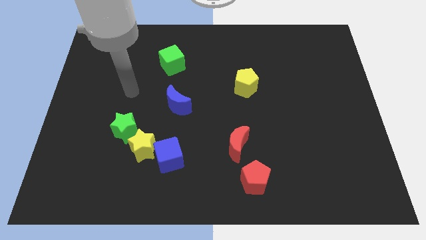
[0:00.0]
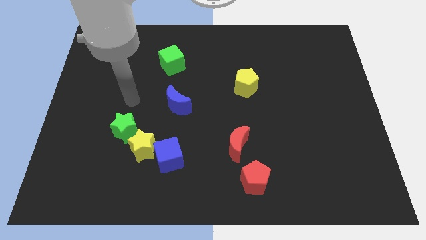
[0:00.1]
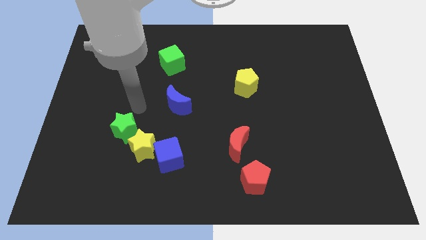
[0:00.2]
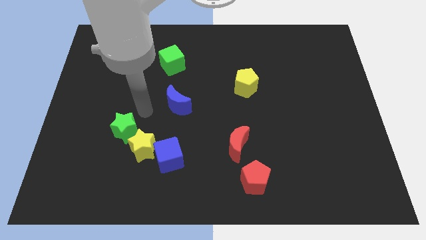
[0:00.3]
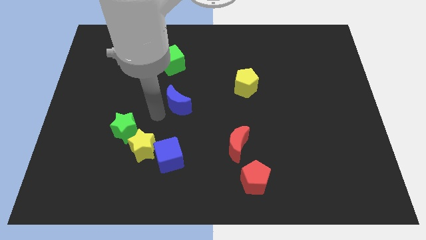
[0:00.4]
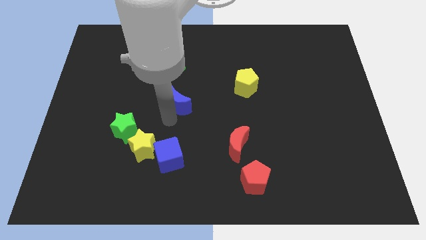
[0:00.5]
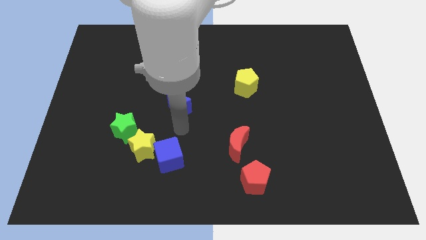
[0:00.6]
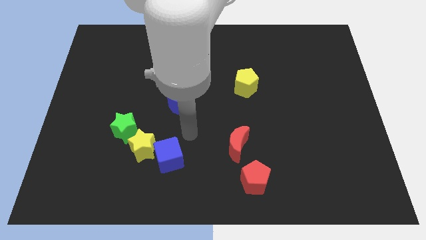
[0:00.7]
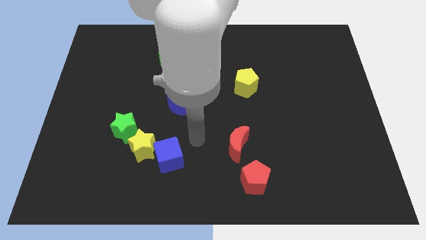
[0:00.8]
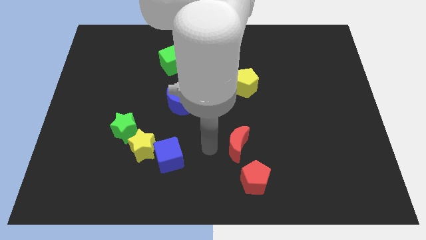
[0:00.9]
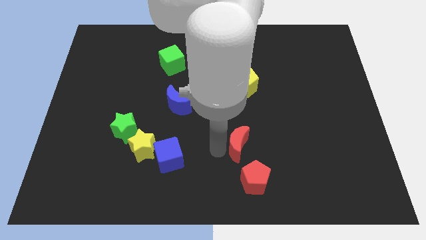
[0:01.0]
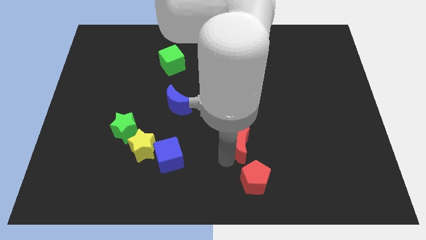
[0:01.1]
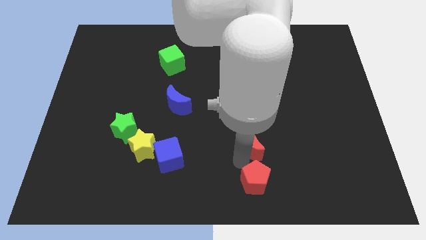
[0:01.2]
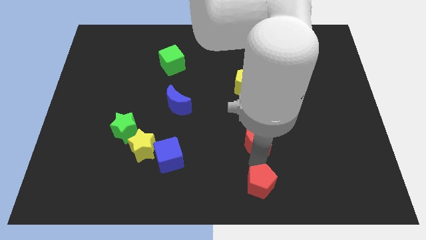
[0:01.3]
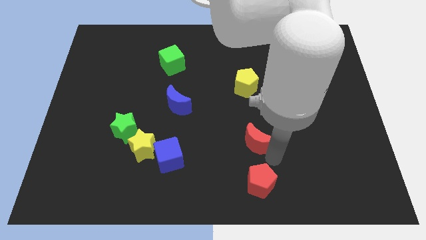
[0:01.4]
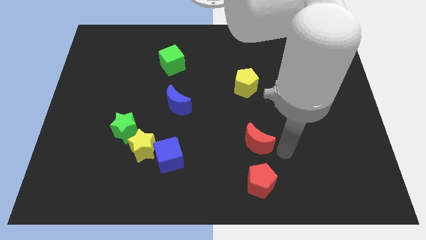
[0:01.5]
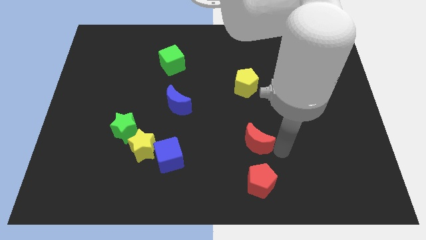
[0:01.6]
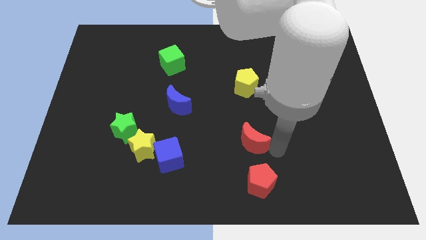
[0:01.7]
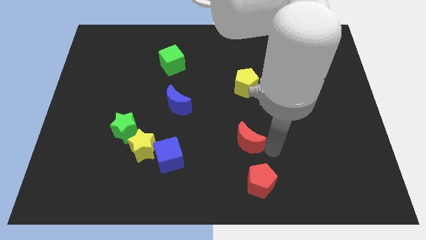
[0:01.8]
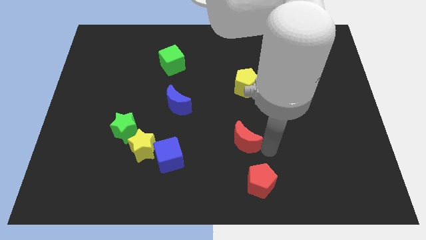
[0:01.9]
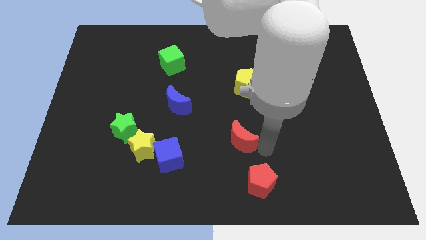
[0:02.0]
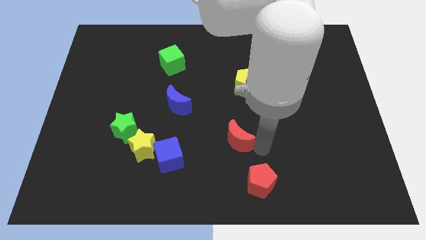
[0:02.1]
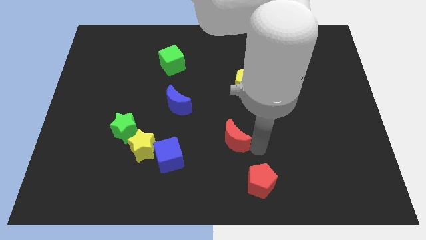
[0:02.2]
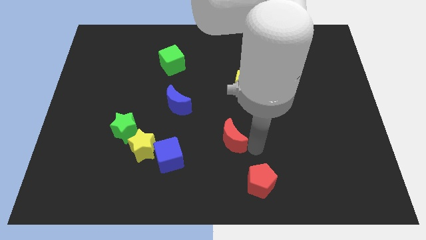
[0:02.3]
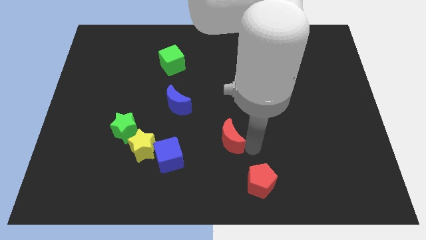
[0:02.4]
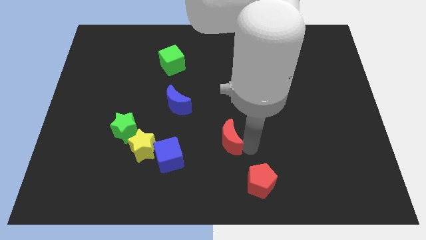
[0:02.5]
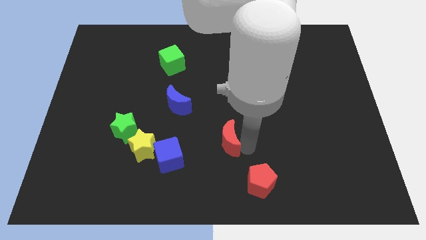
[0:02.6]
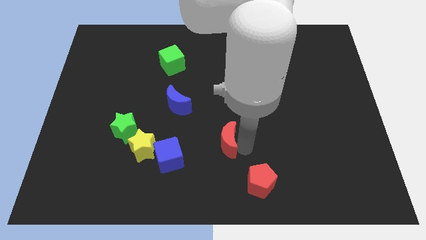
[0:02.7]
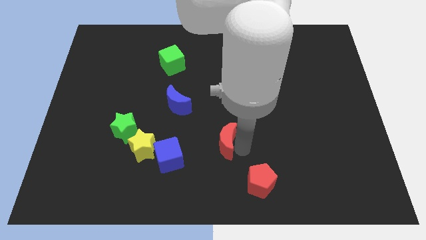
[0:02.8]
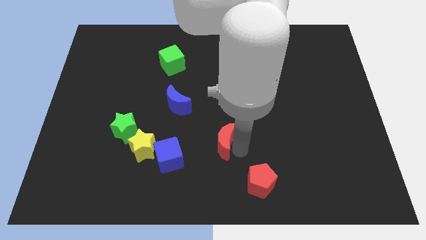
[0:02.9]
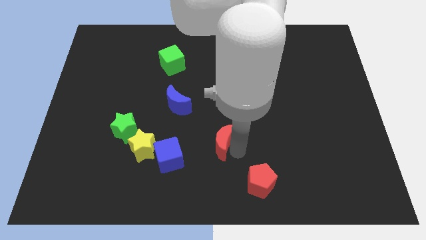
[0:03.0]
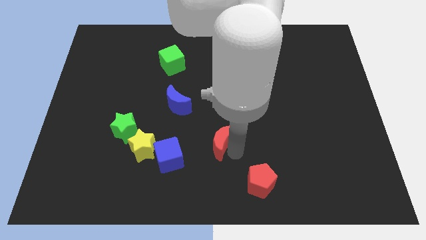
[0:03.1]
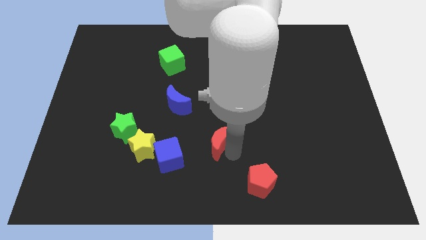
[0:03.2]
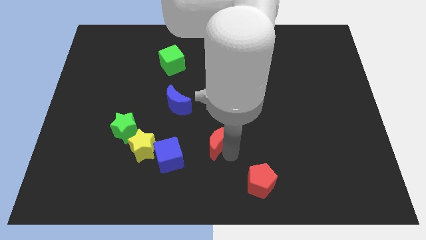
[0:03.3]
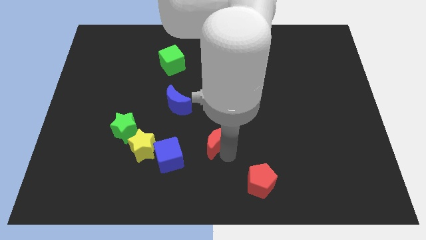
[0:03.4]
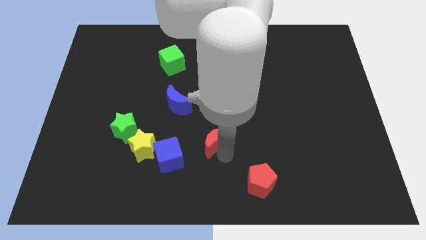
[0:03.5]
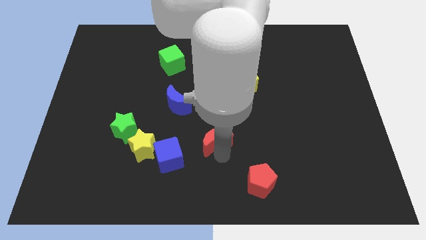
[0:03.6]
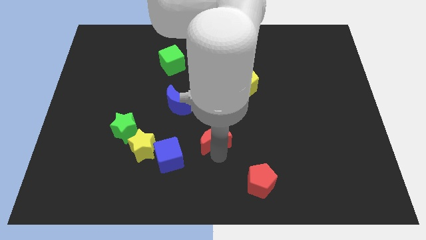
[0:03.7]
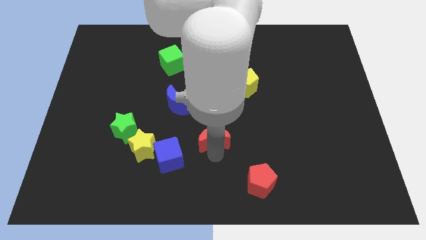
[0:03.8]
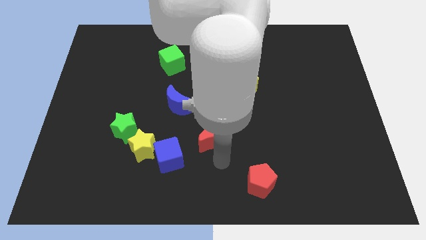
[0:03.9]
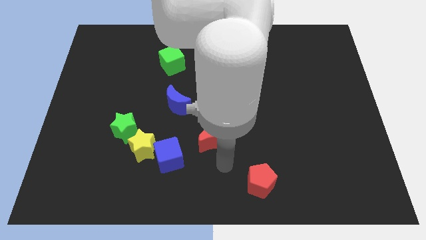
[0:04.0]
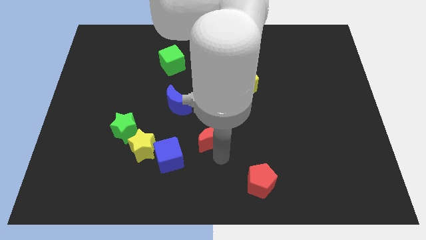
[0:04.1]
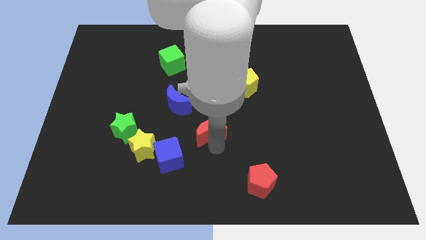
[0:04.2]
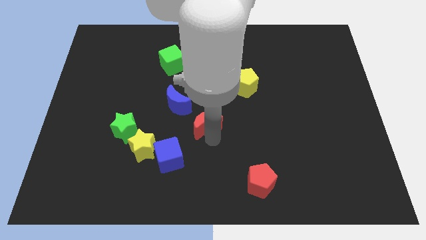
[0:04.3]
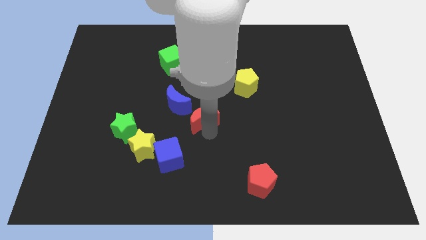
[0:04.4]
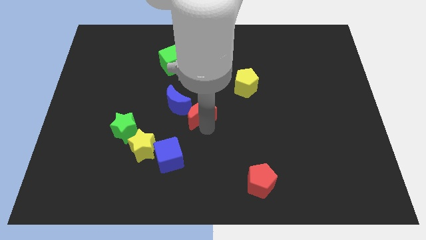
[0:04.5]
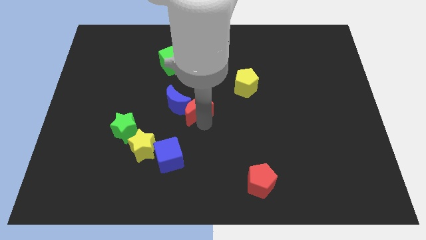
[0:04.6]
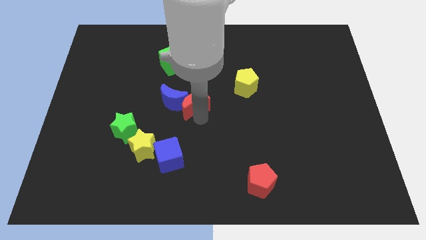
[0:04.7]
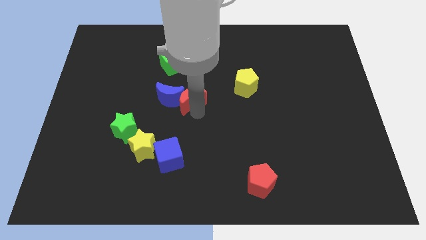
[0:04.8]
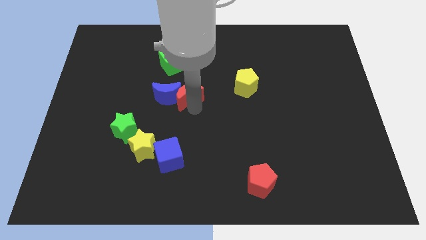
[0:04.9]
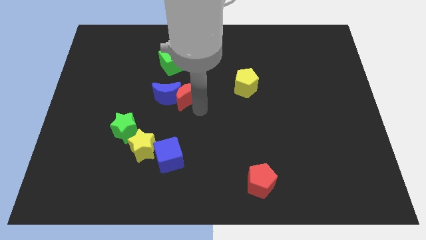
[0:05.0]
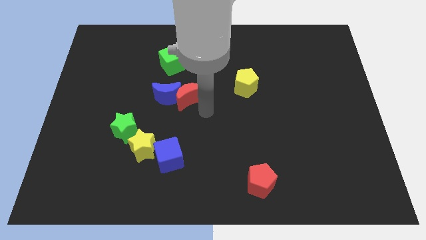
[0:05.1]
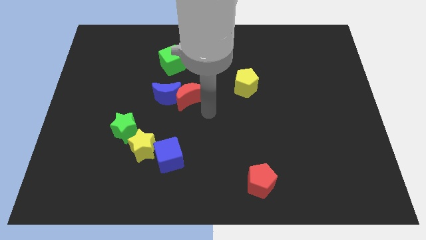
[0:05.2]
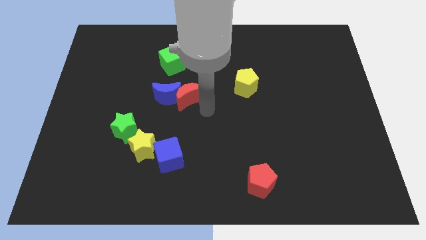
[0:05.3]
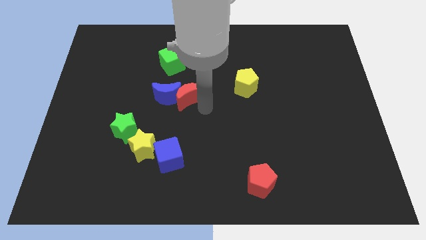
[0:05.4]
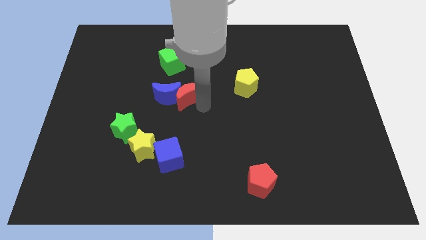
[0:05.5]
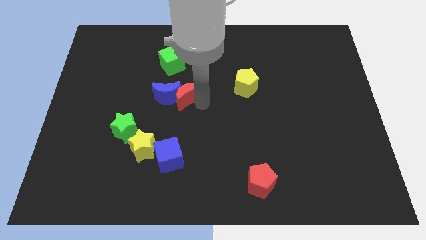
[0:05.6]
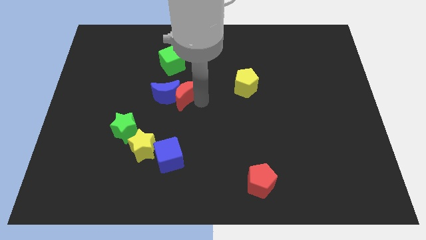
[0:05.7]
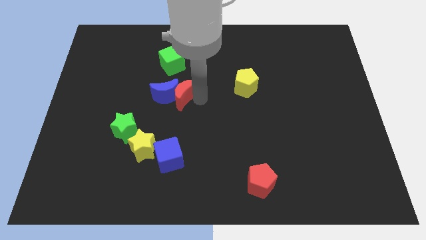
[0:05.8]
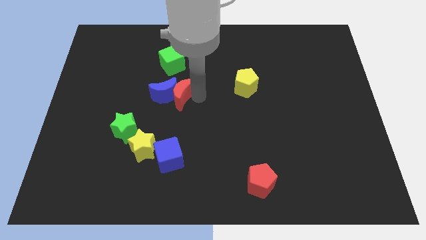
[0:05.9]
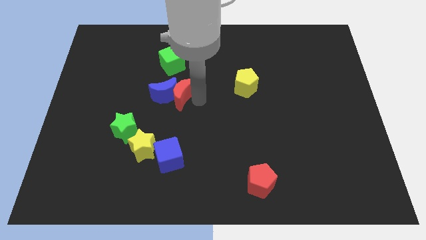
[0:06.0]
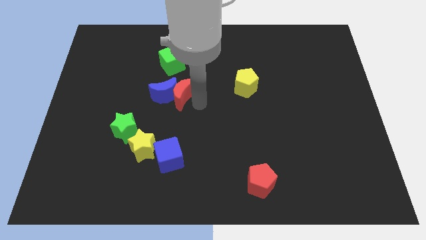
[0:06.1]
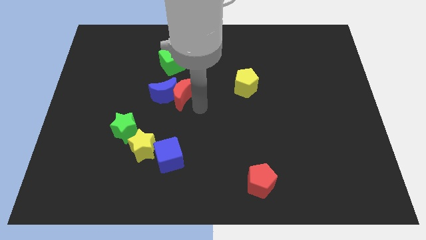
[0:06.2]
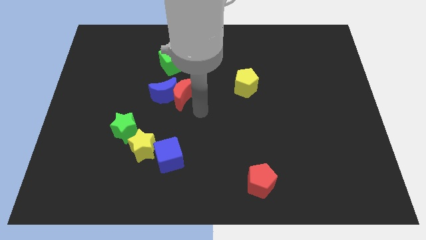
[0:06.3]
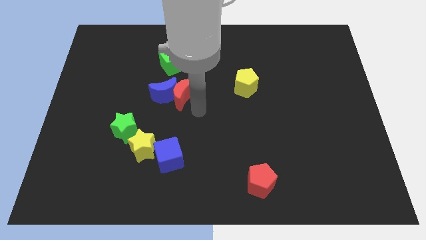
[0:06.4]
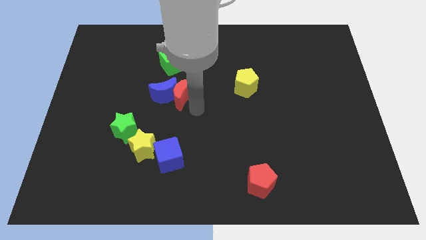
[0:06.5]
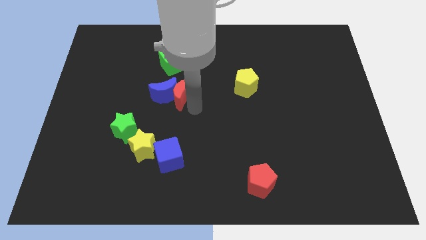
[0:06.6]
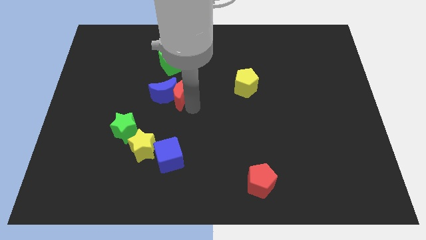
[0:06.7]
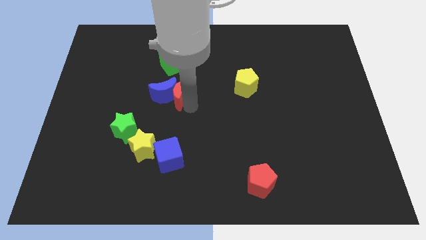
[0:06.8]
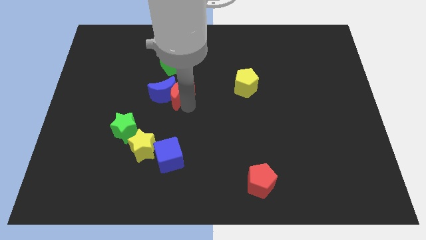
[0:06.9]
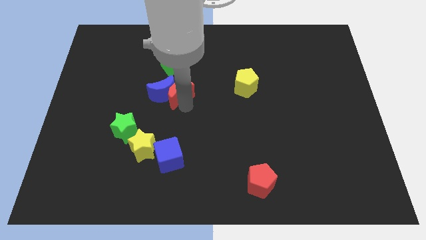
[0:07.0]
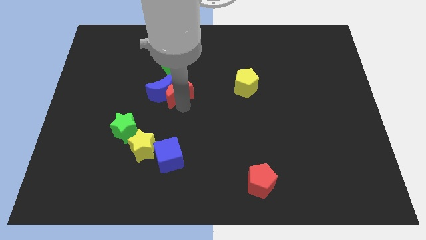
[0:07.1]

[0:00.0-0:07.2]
move the red moon upwards and then left

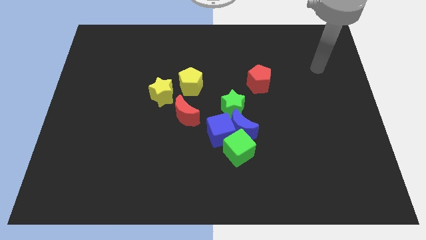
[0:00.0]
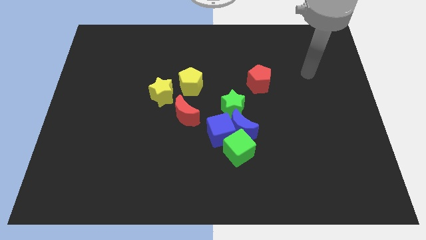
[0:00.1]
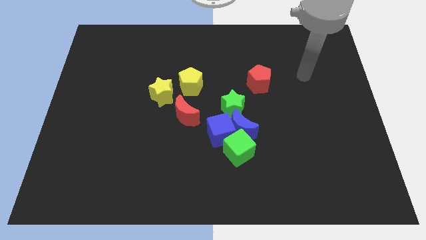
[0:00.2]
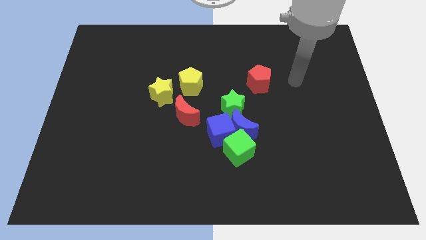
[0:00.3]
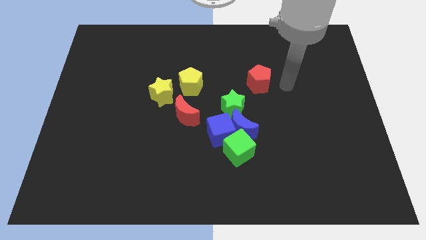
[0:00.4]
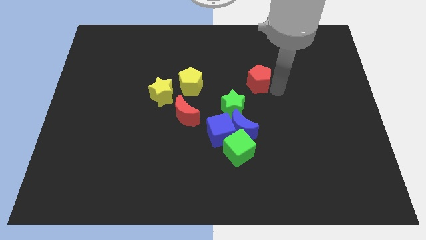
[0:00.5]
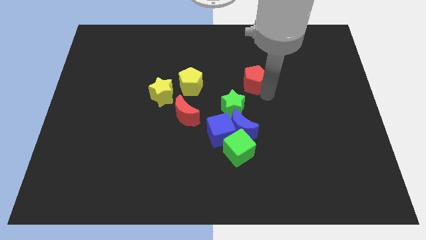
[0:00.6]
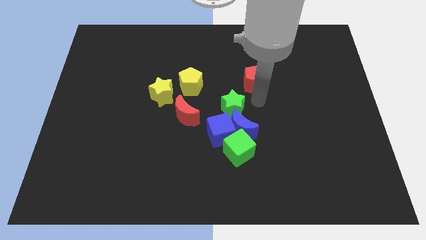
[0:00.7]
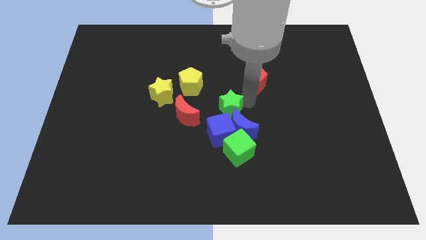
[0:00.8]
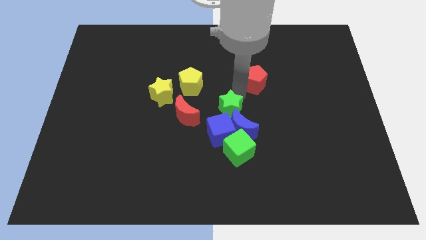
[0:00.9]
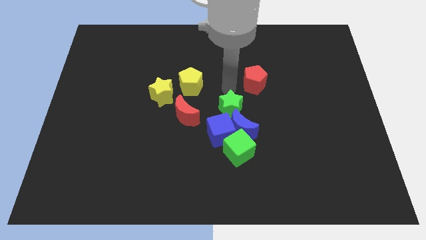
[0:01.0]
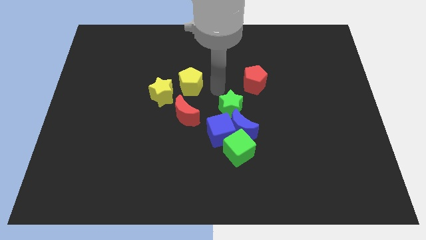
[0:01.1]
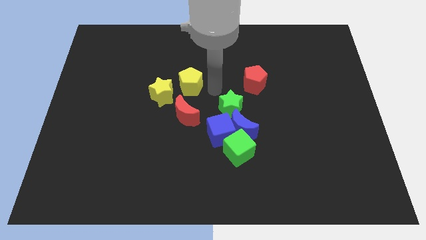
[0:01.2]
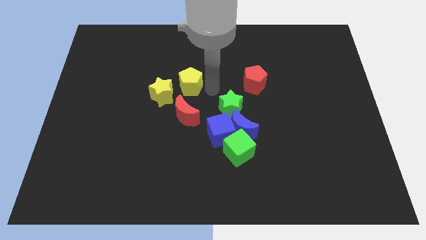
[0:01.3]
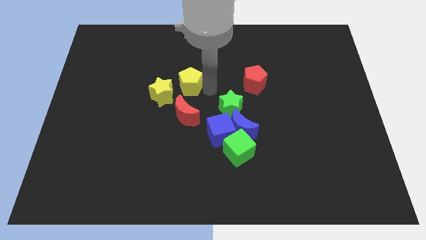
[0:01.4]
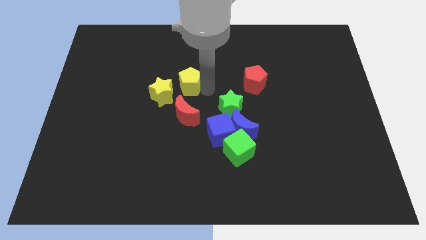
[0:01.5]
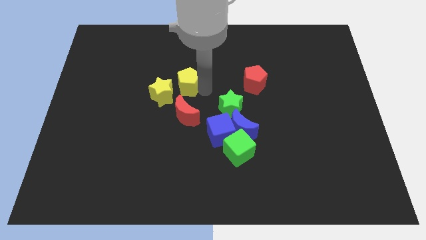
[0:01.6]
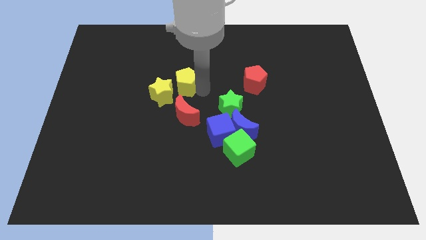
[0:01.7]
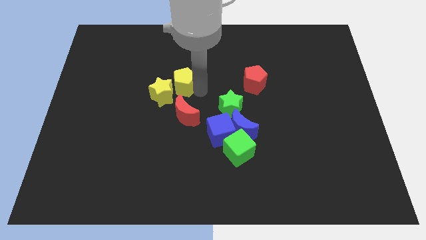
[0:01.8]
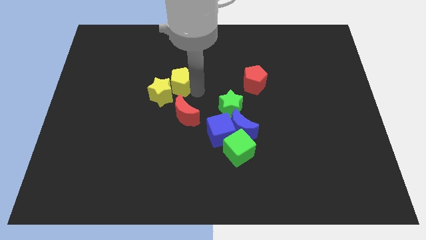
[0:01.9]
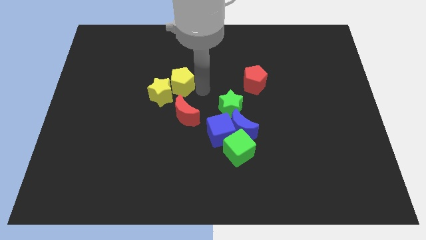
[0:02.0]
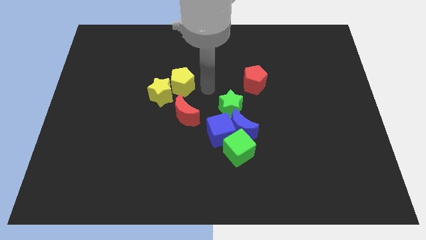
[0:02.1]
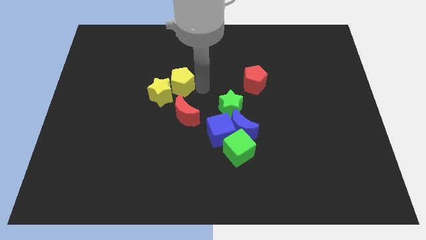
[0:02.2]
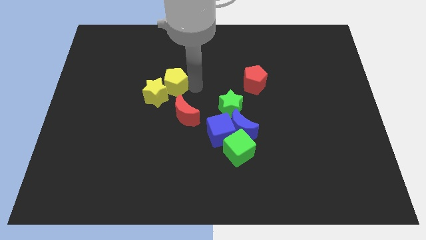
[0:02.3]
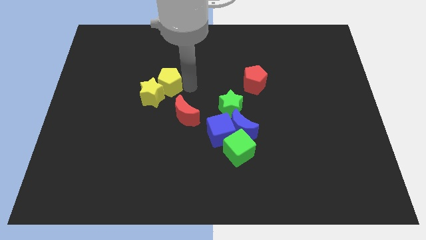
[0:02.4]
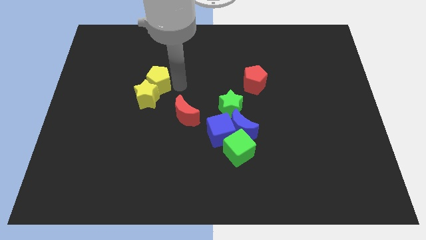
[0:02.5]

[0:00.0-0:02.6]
slightly slide the yellow pentagon to the left
